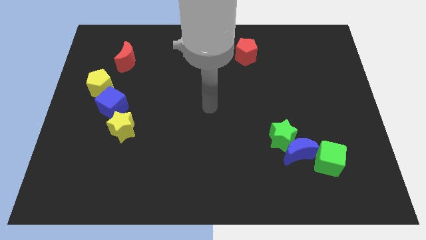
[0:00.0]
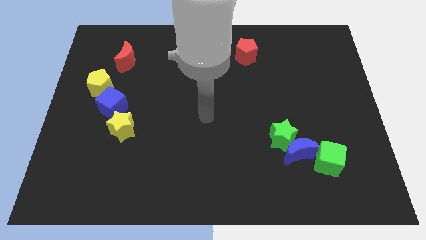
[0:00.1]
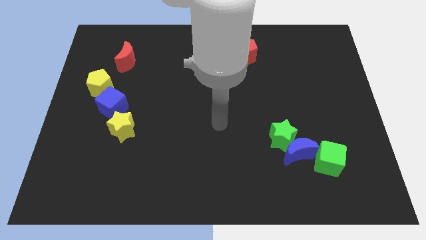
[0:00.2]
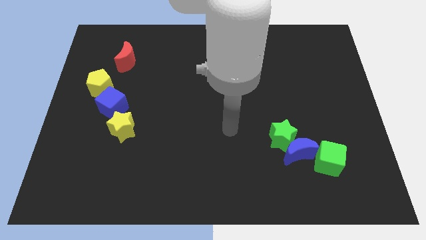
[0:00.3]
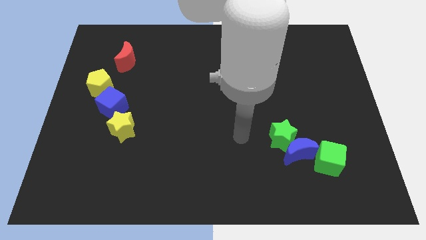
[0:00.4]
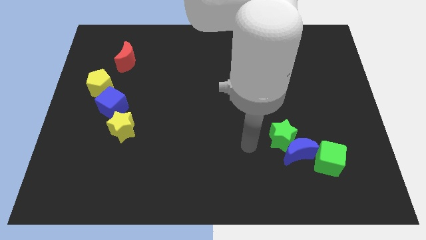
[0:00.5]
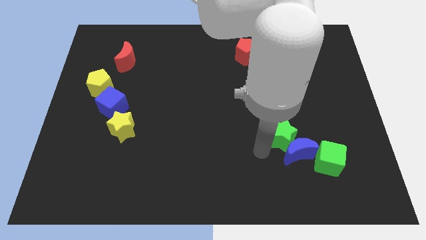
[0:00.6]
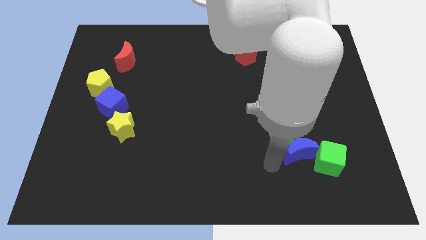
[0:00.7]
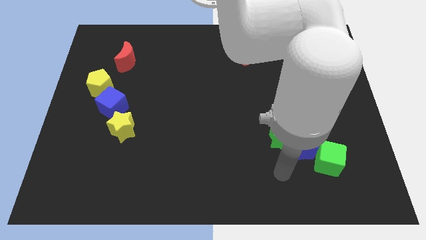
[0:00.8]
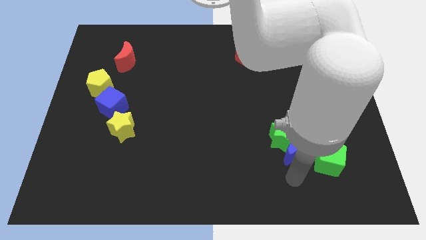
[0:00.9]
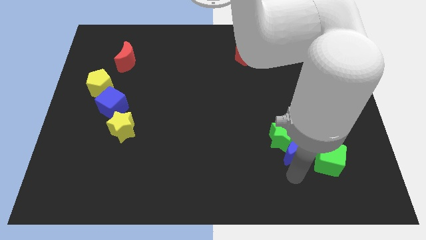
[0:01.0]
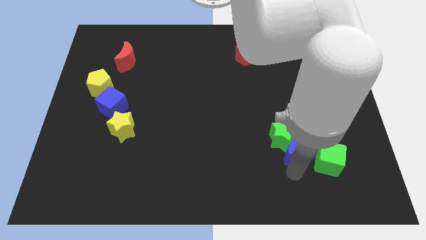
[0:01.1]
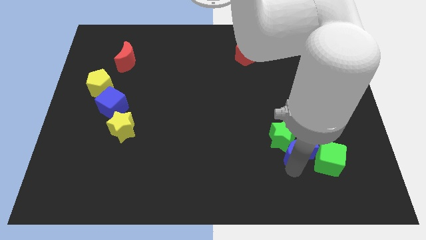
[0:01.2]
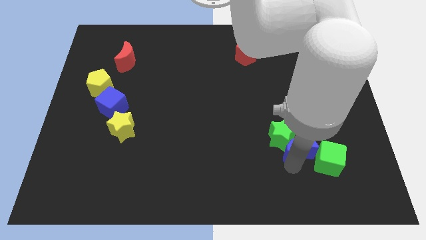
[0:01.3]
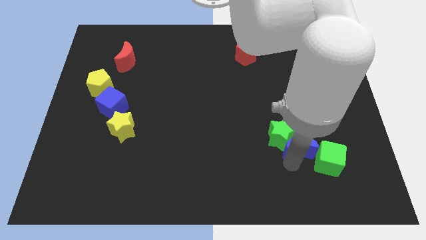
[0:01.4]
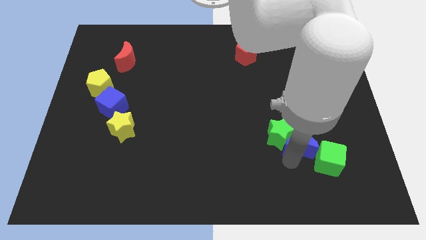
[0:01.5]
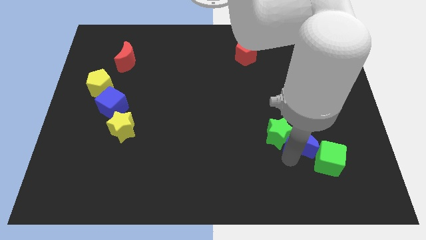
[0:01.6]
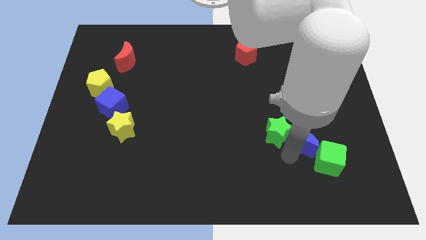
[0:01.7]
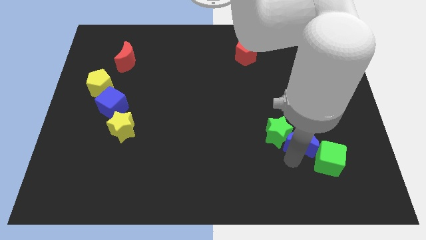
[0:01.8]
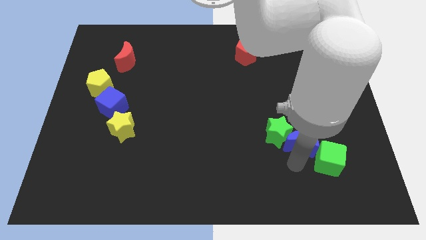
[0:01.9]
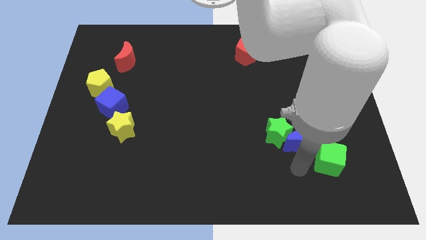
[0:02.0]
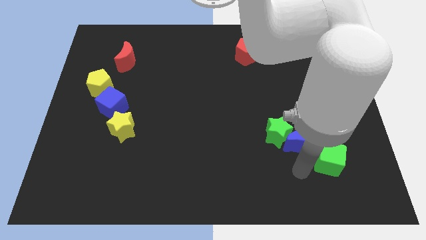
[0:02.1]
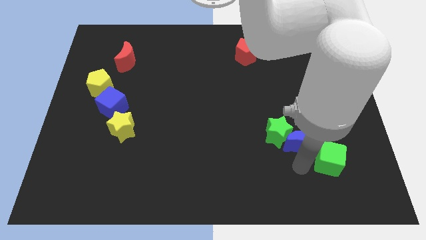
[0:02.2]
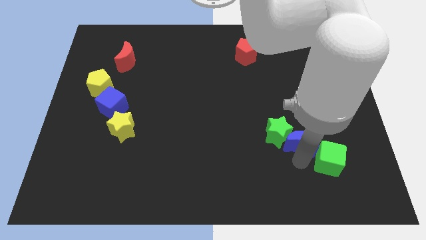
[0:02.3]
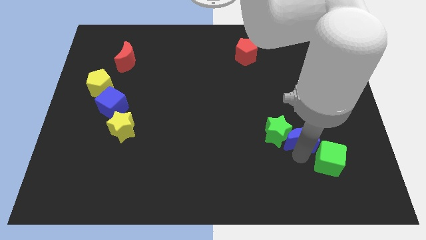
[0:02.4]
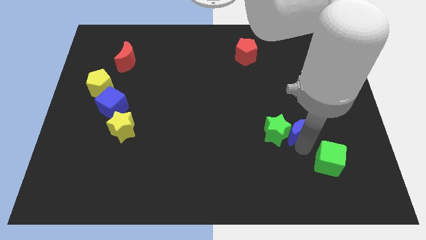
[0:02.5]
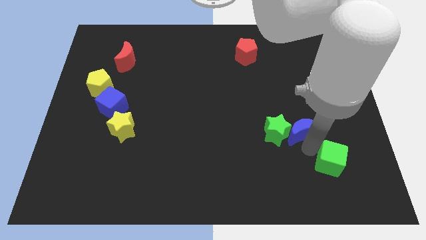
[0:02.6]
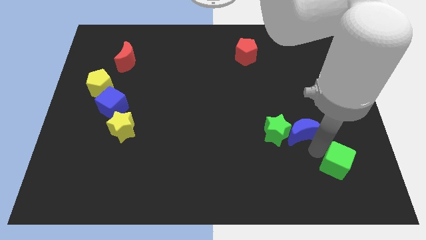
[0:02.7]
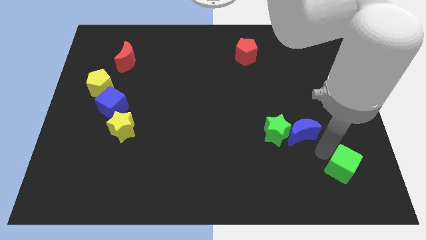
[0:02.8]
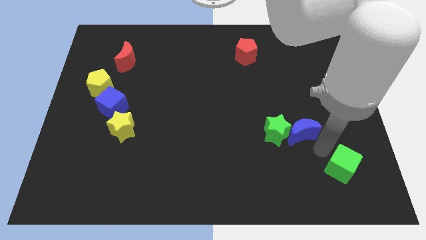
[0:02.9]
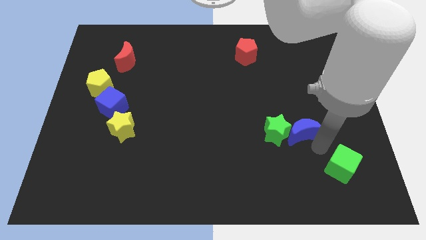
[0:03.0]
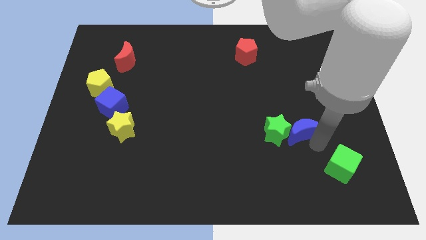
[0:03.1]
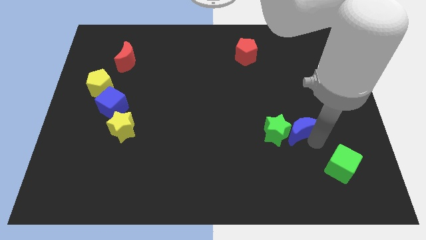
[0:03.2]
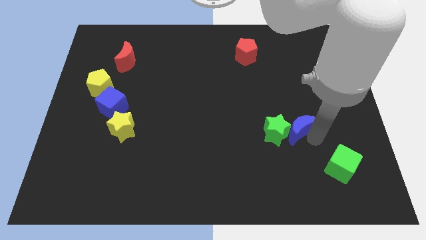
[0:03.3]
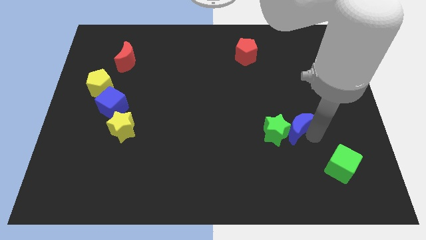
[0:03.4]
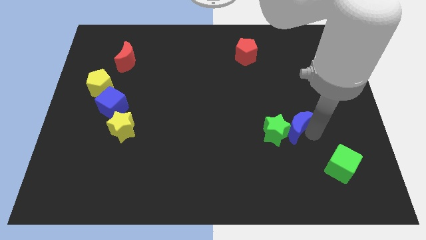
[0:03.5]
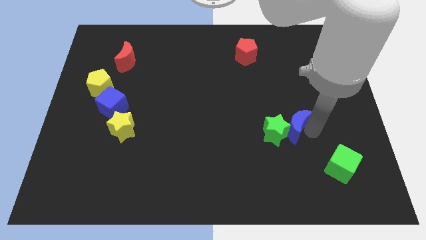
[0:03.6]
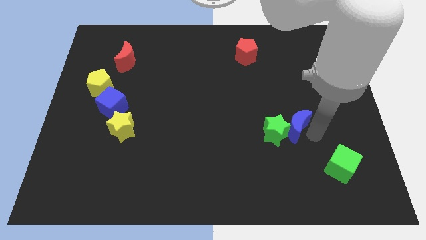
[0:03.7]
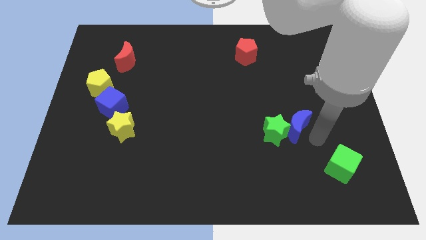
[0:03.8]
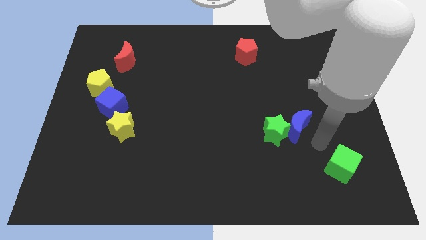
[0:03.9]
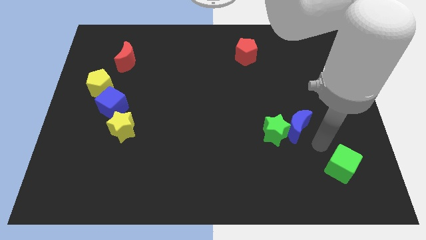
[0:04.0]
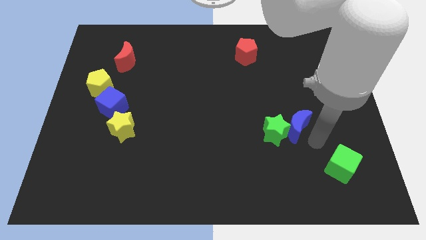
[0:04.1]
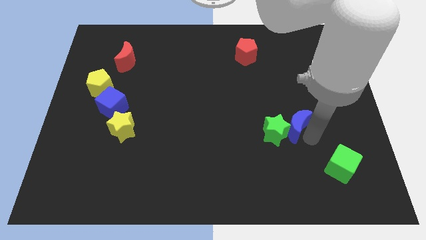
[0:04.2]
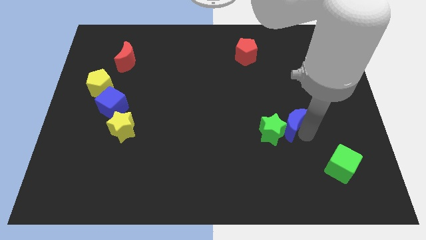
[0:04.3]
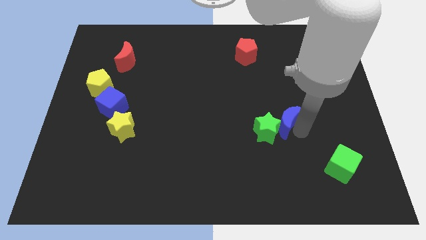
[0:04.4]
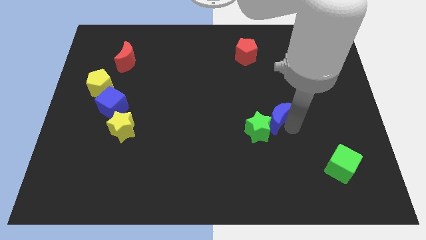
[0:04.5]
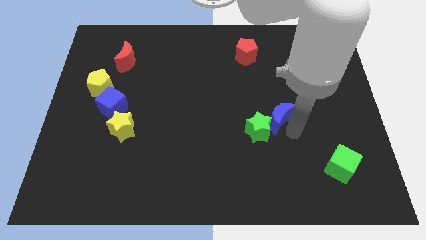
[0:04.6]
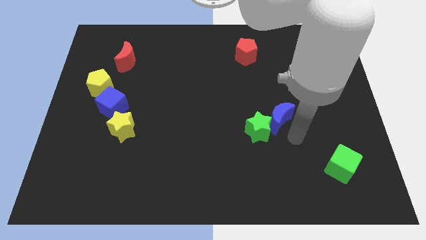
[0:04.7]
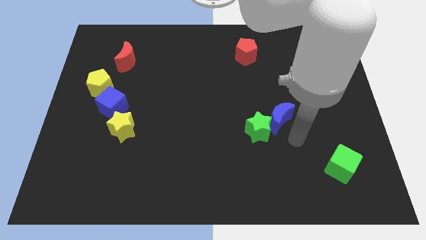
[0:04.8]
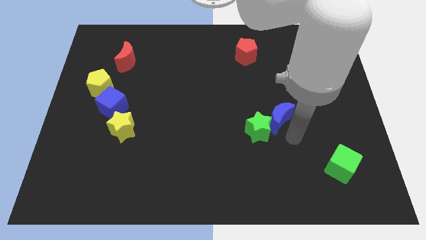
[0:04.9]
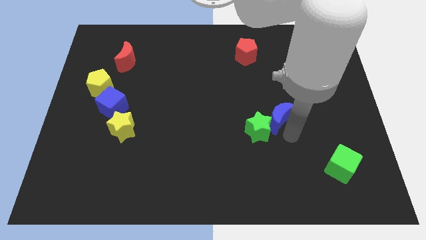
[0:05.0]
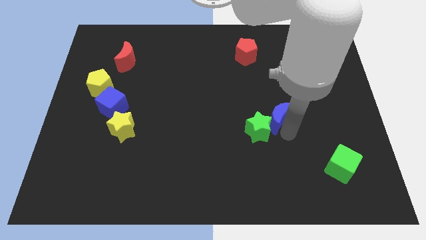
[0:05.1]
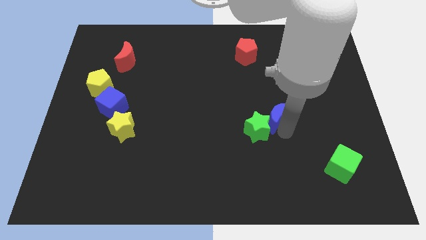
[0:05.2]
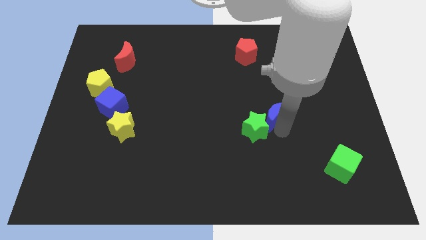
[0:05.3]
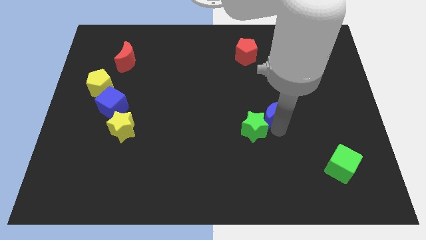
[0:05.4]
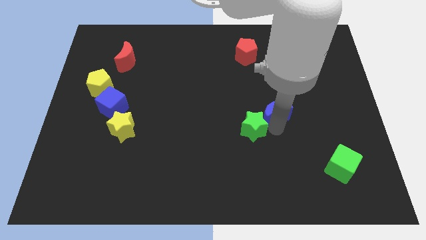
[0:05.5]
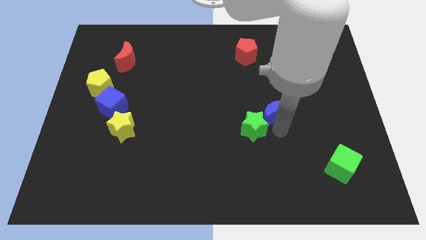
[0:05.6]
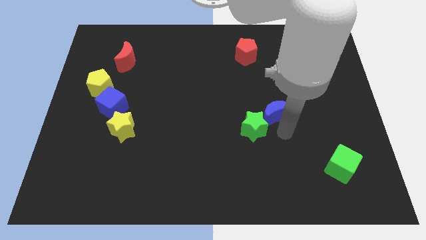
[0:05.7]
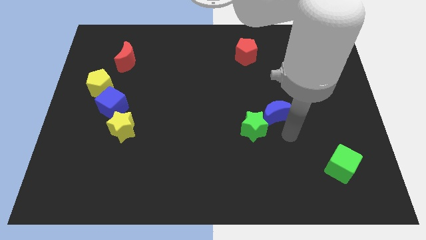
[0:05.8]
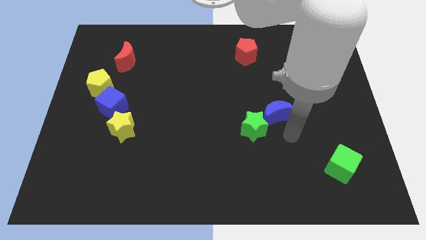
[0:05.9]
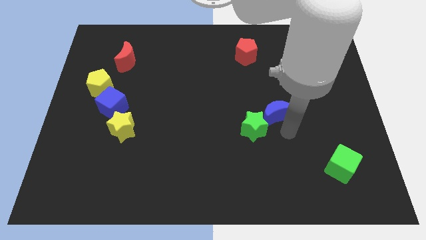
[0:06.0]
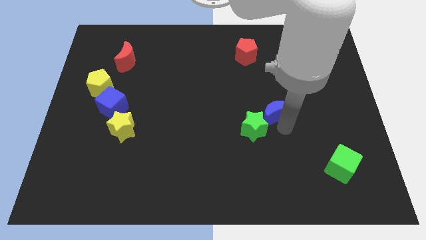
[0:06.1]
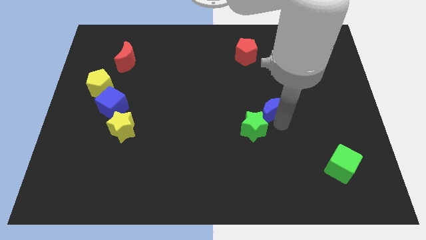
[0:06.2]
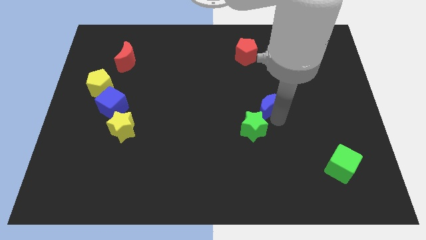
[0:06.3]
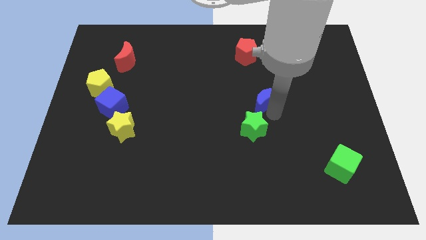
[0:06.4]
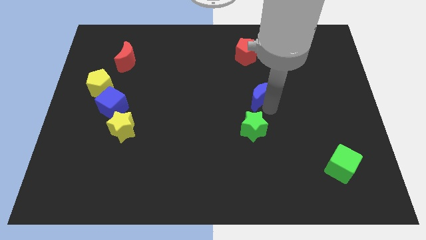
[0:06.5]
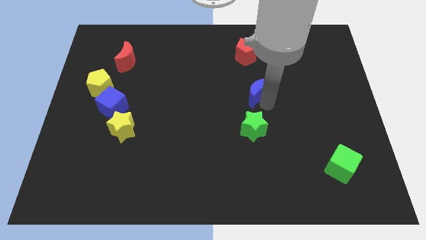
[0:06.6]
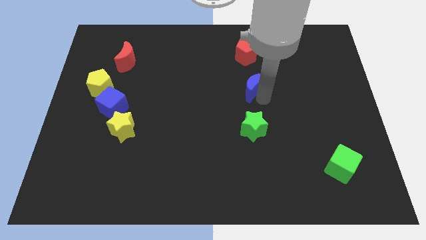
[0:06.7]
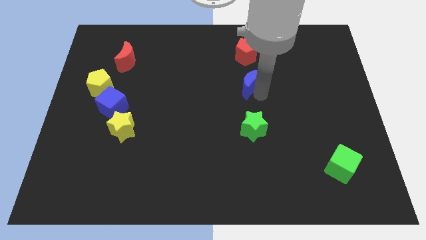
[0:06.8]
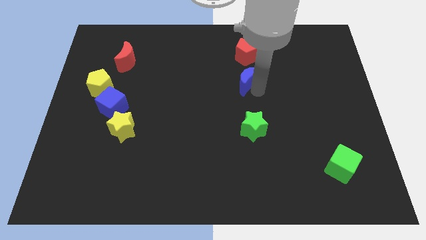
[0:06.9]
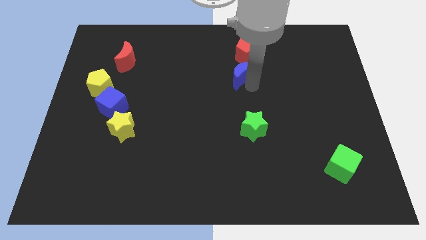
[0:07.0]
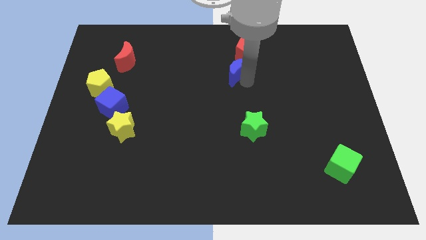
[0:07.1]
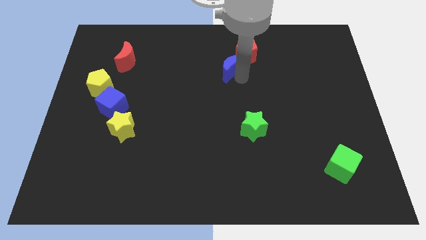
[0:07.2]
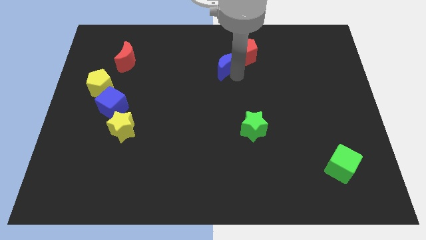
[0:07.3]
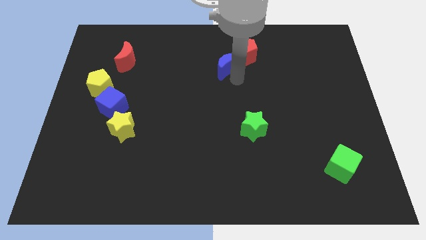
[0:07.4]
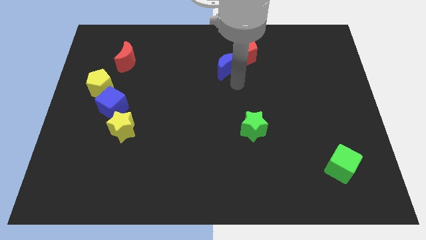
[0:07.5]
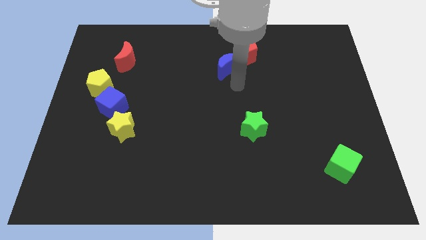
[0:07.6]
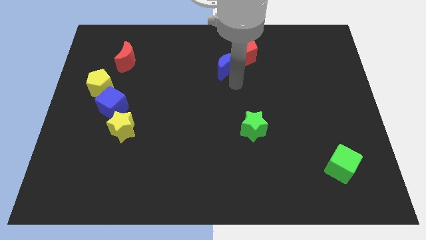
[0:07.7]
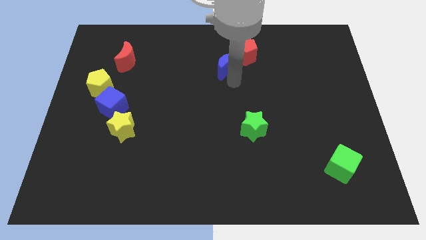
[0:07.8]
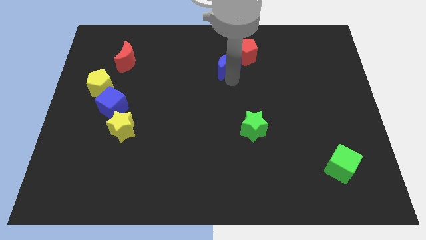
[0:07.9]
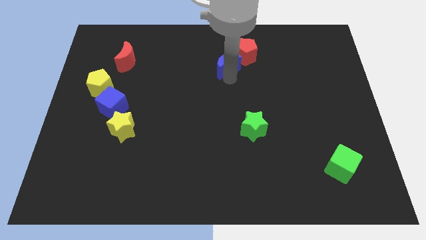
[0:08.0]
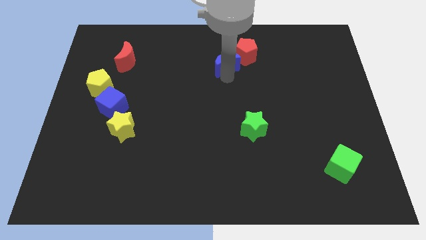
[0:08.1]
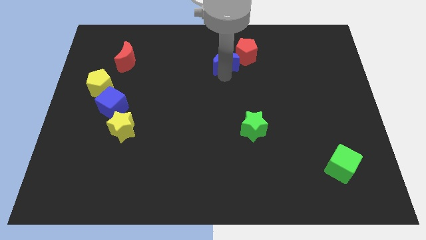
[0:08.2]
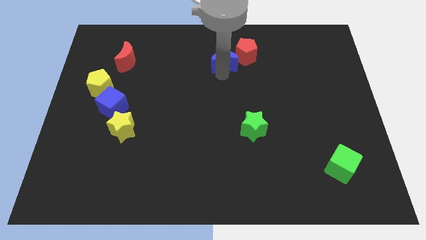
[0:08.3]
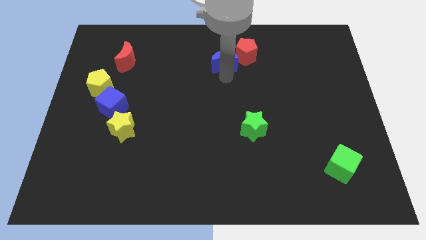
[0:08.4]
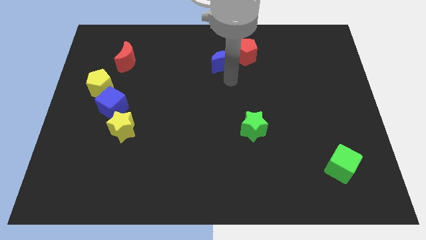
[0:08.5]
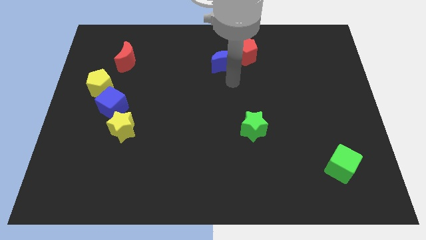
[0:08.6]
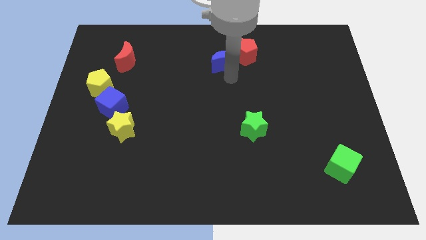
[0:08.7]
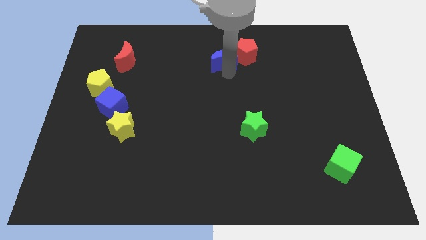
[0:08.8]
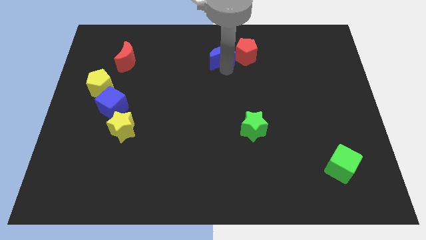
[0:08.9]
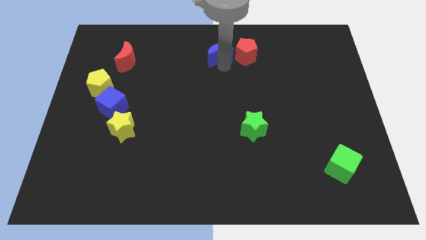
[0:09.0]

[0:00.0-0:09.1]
put the blue moon to the top side
